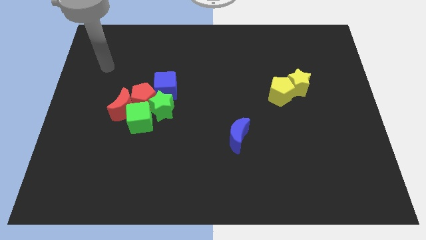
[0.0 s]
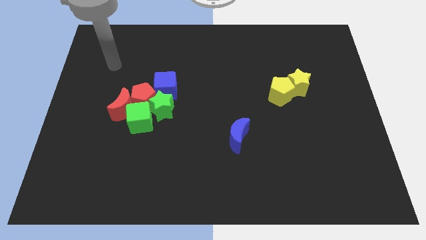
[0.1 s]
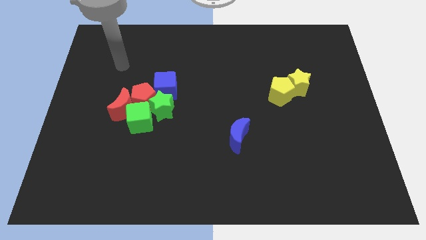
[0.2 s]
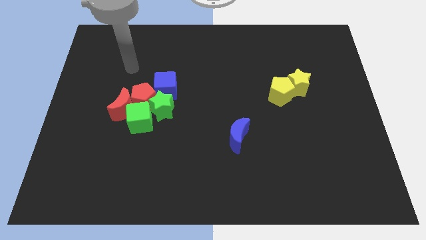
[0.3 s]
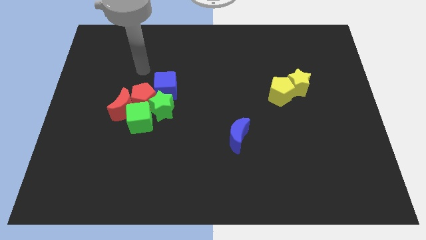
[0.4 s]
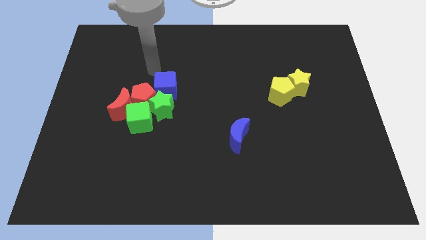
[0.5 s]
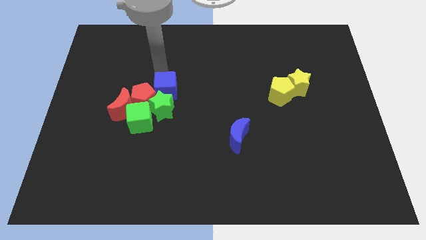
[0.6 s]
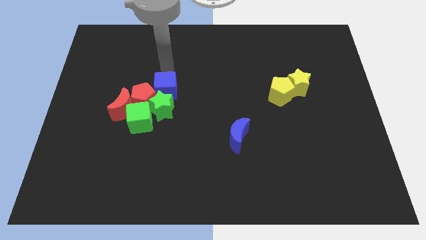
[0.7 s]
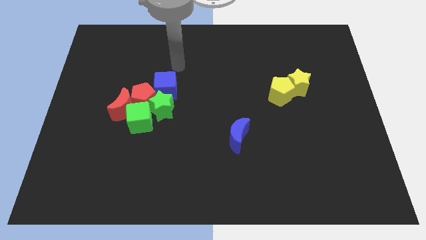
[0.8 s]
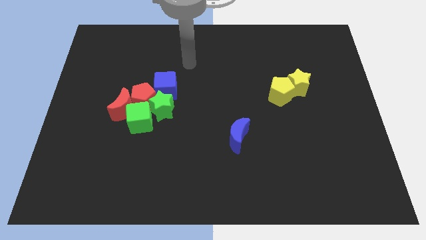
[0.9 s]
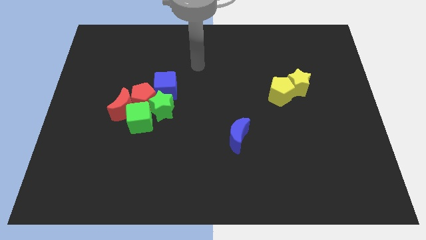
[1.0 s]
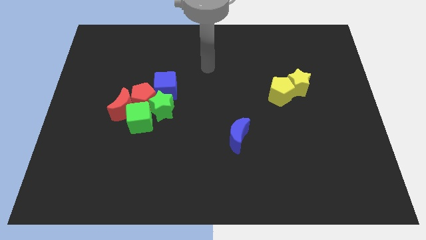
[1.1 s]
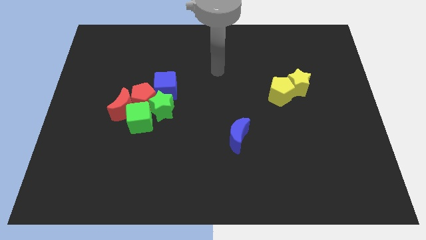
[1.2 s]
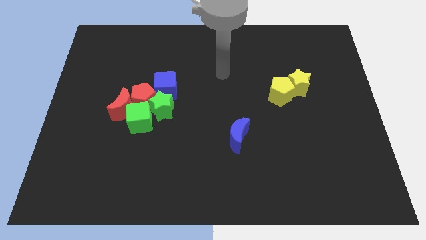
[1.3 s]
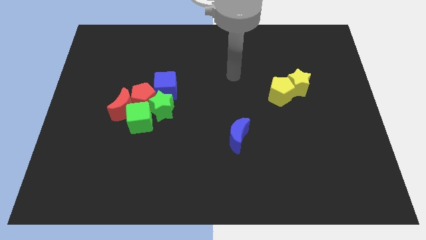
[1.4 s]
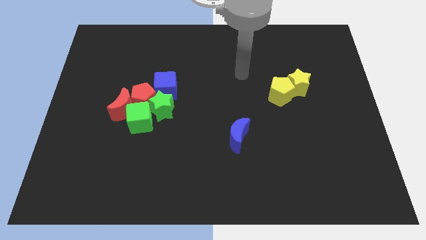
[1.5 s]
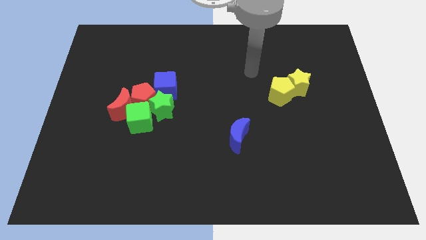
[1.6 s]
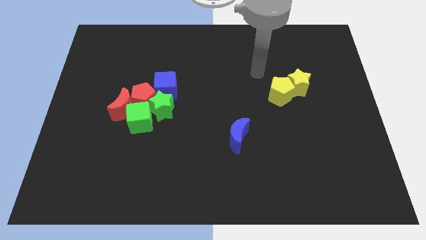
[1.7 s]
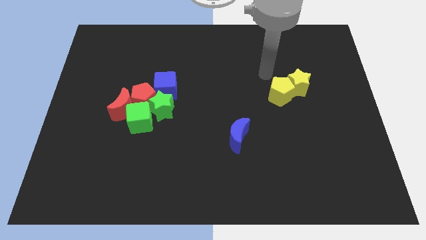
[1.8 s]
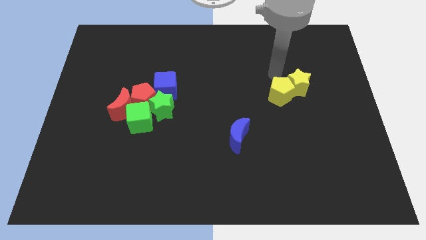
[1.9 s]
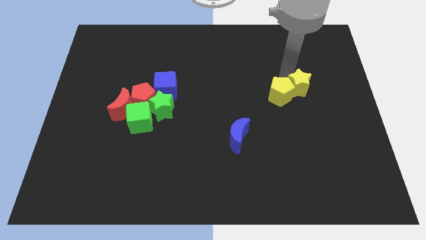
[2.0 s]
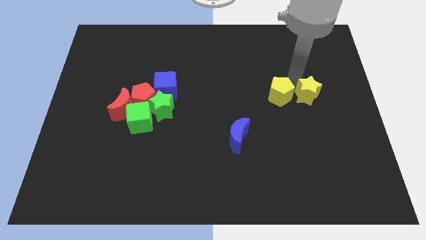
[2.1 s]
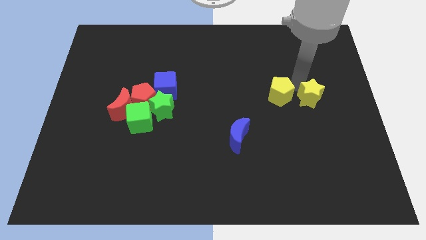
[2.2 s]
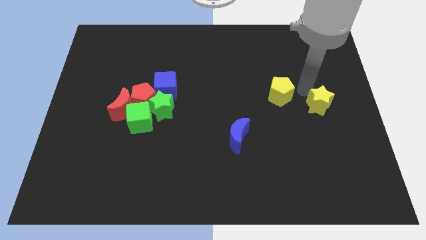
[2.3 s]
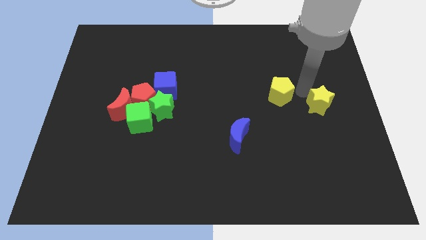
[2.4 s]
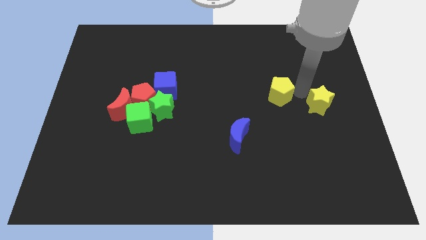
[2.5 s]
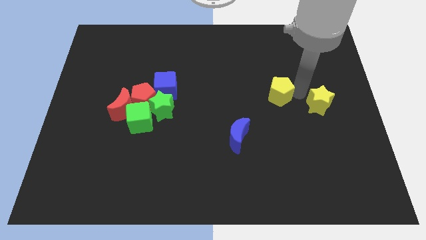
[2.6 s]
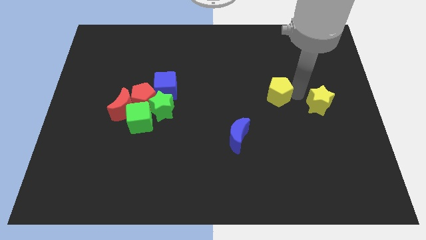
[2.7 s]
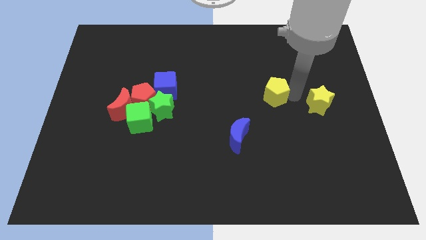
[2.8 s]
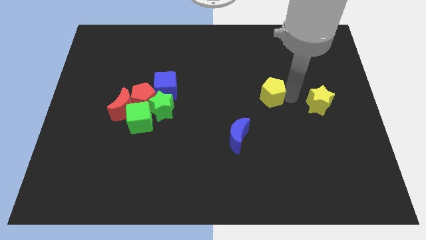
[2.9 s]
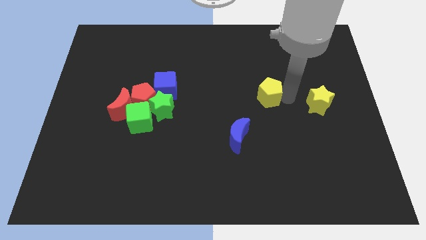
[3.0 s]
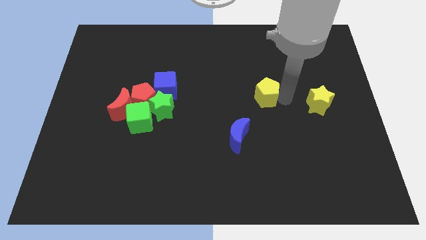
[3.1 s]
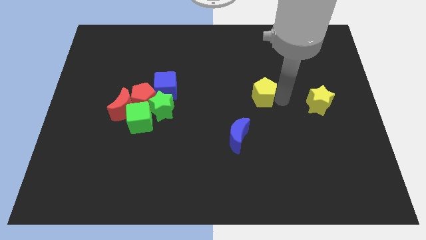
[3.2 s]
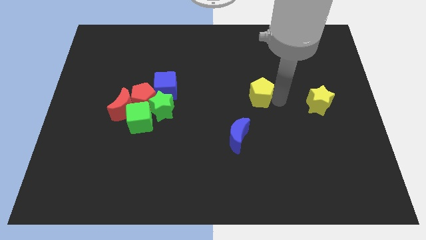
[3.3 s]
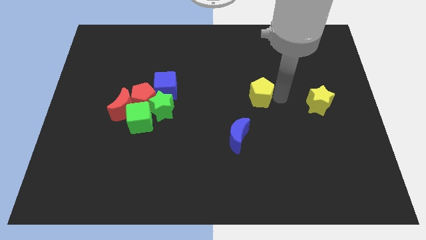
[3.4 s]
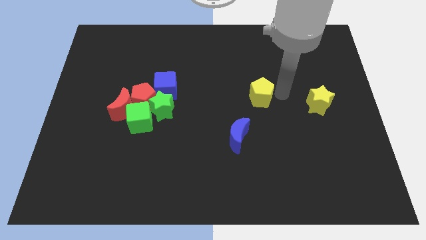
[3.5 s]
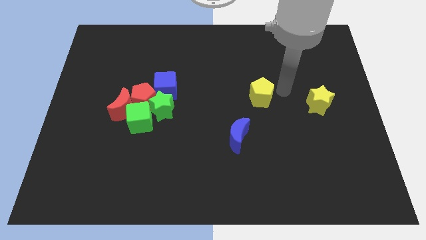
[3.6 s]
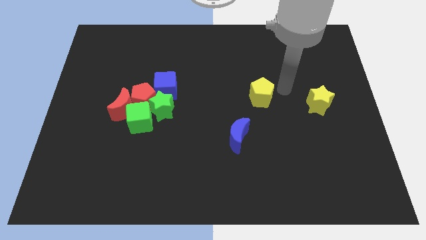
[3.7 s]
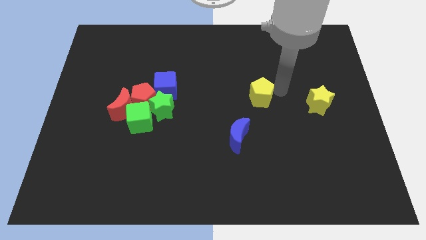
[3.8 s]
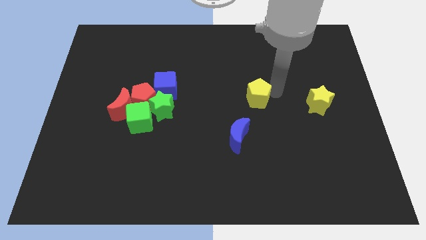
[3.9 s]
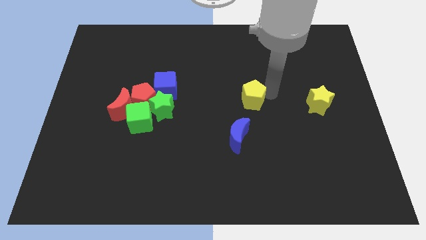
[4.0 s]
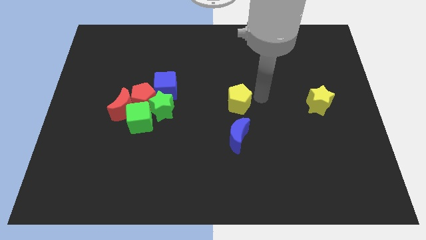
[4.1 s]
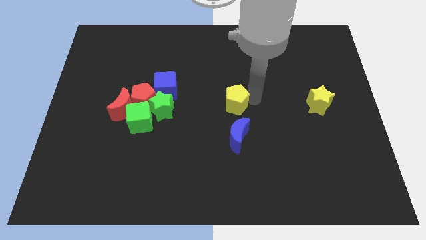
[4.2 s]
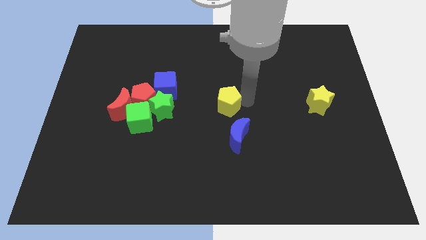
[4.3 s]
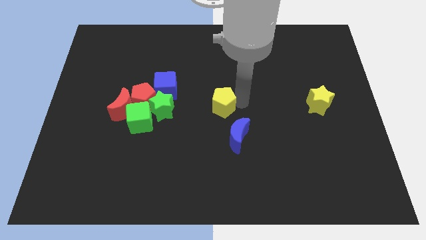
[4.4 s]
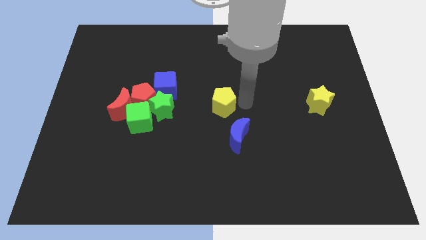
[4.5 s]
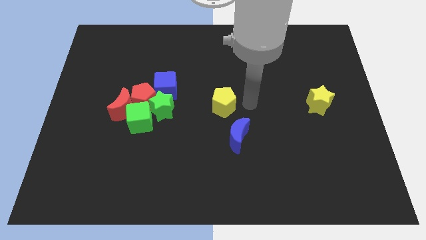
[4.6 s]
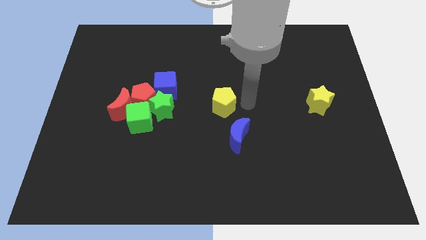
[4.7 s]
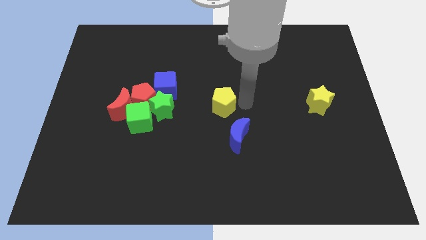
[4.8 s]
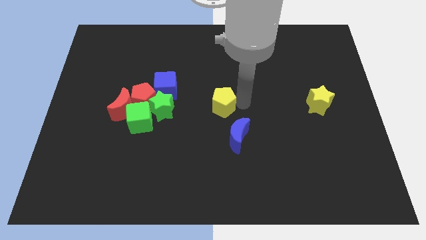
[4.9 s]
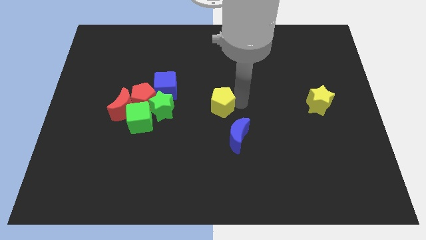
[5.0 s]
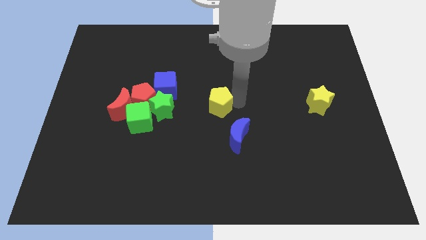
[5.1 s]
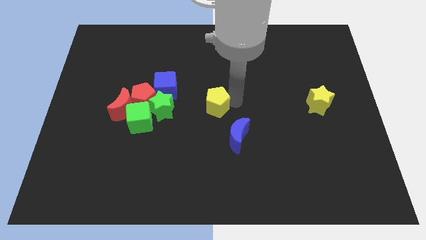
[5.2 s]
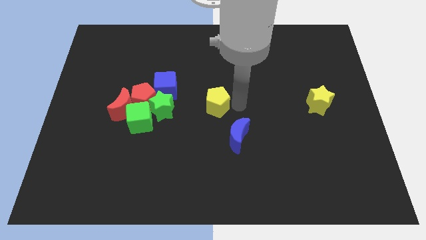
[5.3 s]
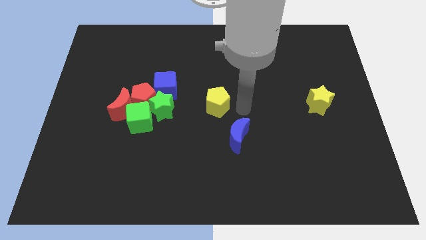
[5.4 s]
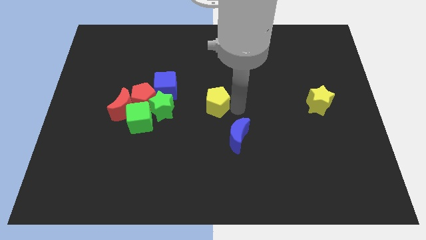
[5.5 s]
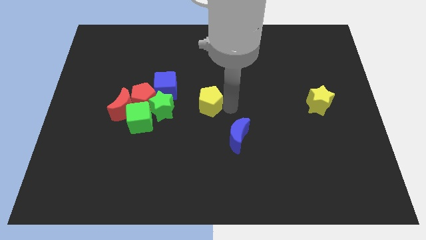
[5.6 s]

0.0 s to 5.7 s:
push the yellow pentagon to the right side of the red pentagon

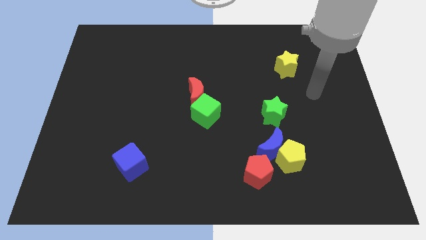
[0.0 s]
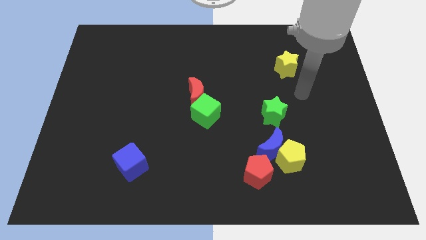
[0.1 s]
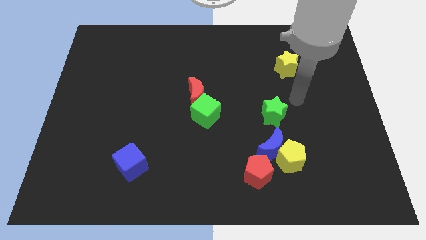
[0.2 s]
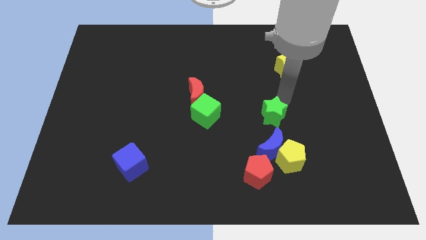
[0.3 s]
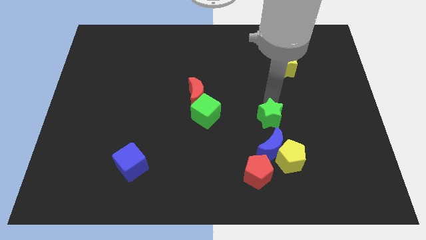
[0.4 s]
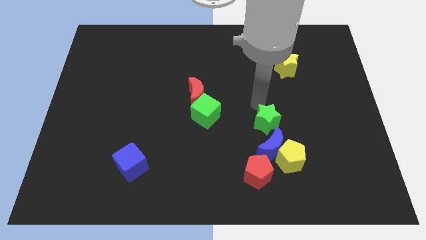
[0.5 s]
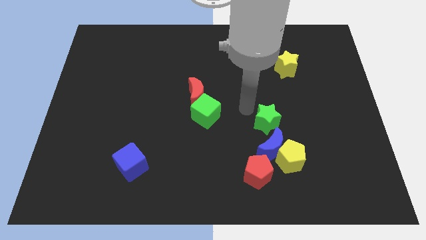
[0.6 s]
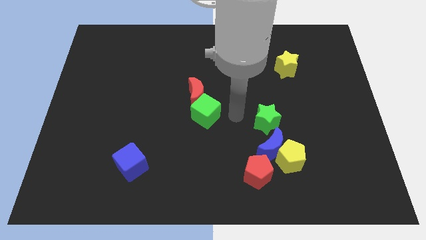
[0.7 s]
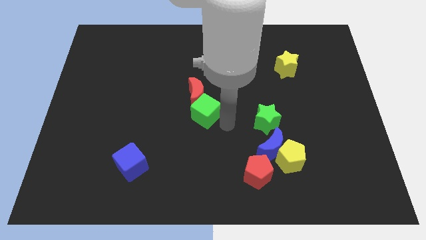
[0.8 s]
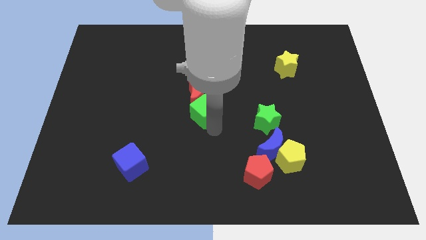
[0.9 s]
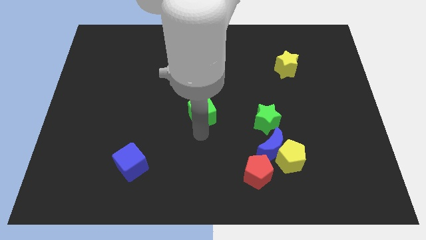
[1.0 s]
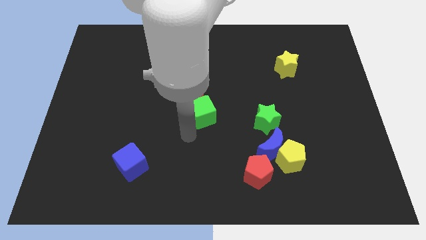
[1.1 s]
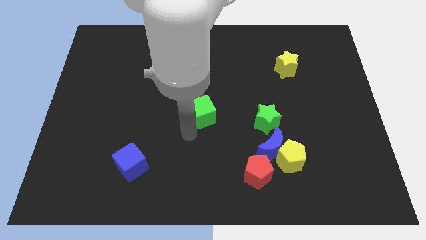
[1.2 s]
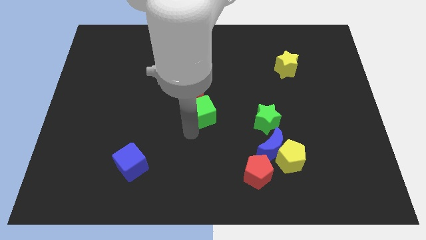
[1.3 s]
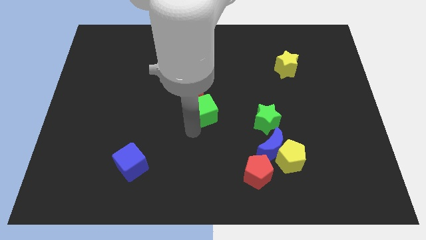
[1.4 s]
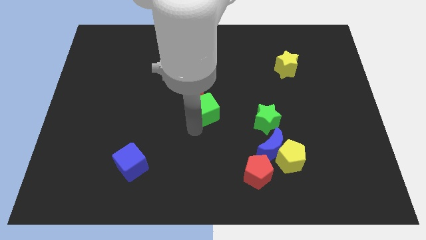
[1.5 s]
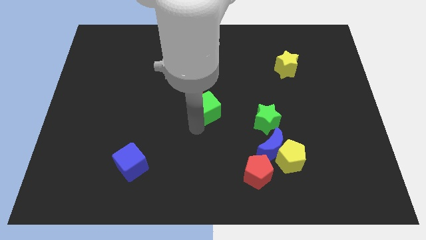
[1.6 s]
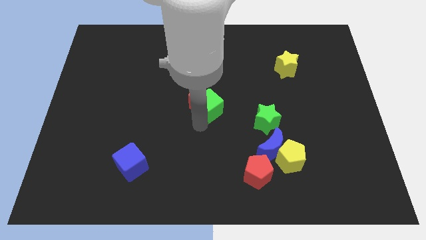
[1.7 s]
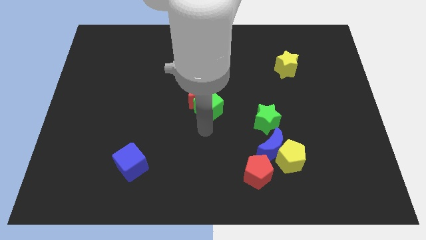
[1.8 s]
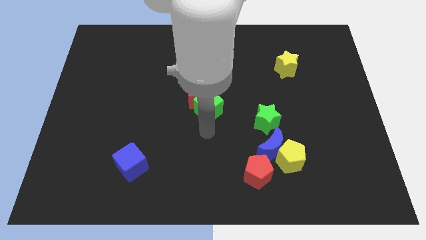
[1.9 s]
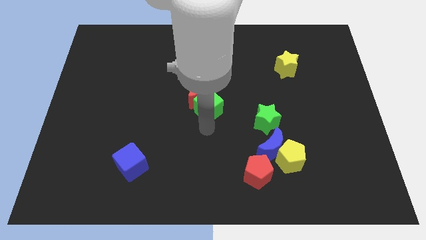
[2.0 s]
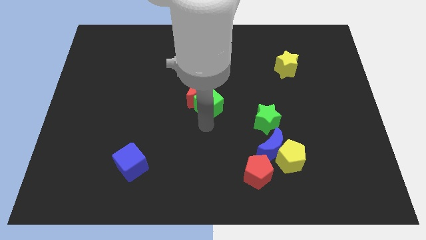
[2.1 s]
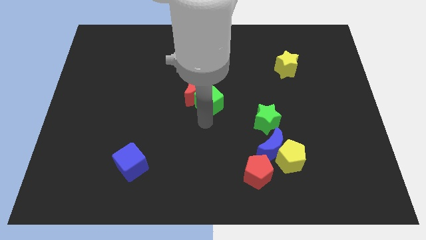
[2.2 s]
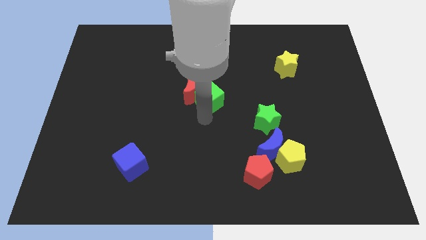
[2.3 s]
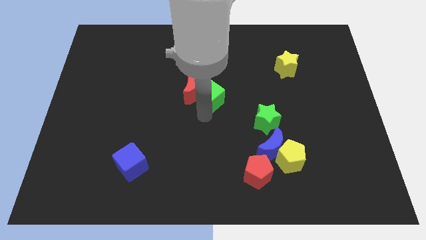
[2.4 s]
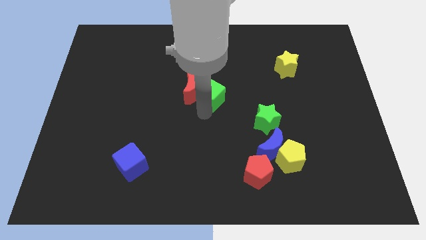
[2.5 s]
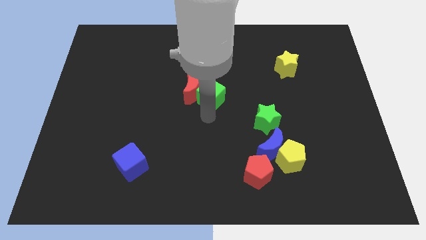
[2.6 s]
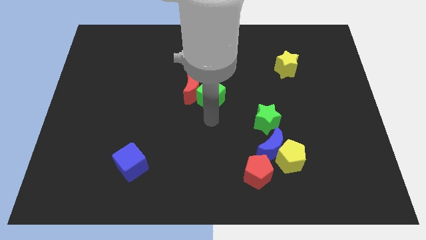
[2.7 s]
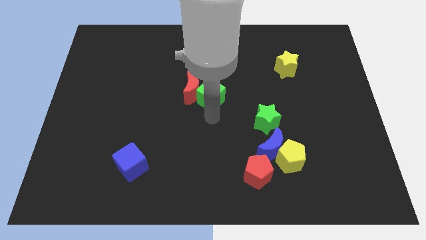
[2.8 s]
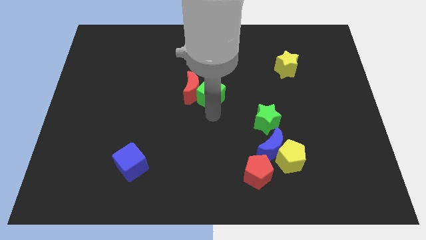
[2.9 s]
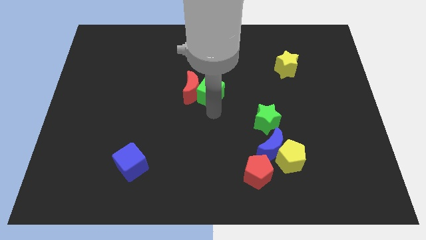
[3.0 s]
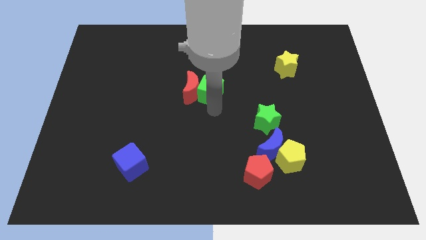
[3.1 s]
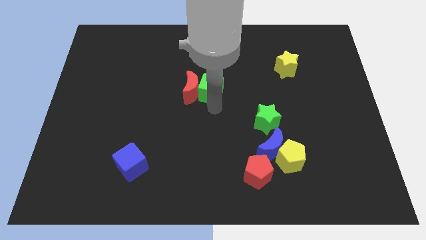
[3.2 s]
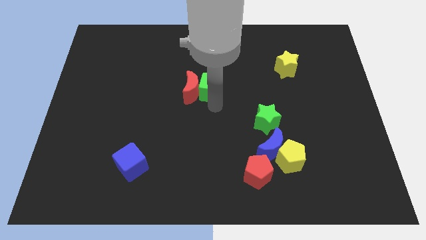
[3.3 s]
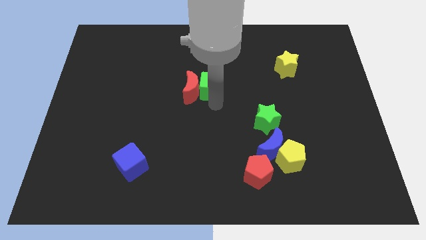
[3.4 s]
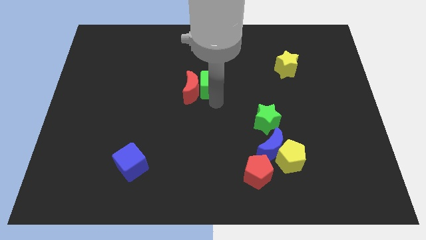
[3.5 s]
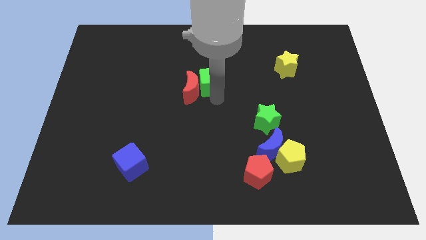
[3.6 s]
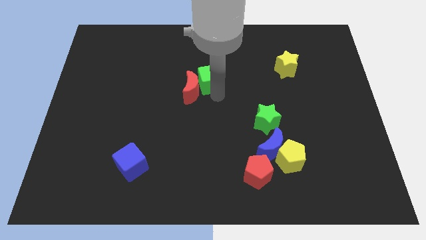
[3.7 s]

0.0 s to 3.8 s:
move the green cube to the top side of the red moon
